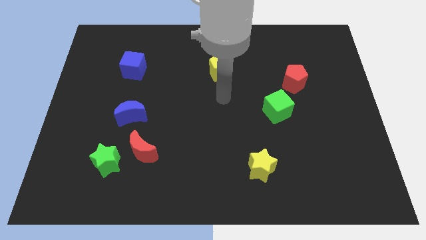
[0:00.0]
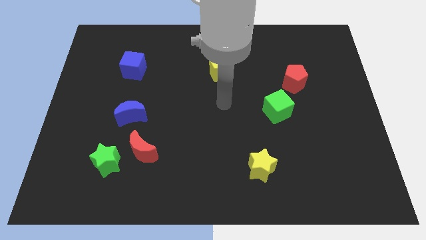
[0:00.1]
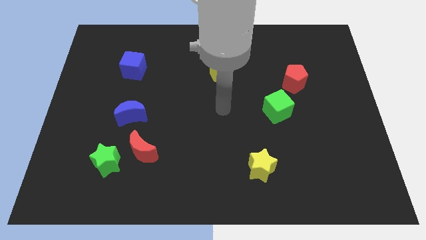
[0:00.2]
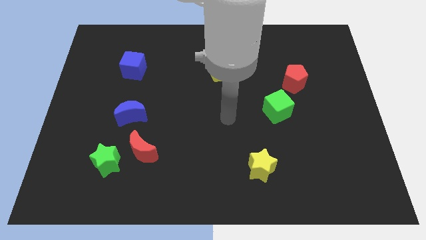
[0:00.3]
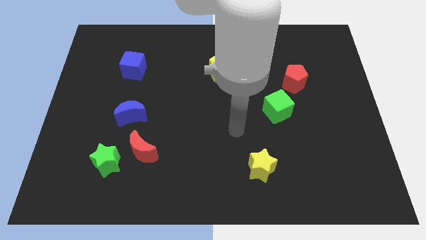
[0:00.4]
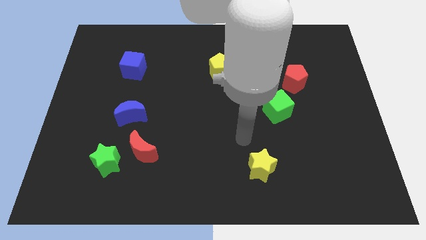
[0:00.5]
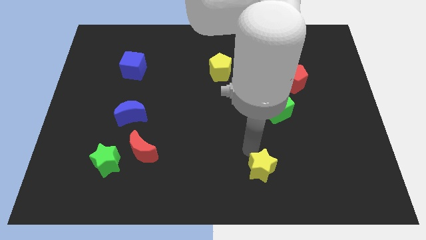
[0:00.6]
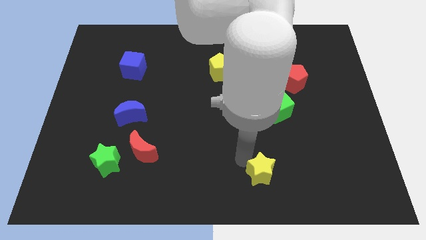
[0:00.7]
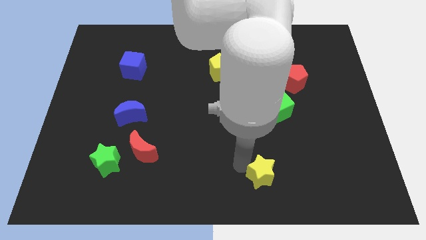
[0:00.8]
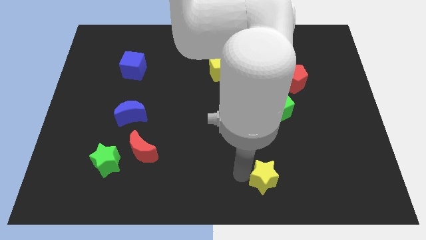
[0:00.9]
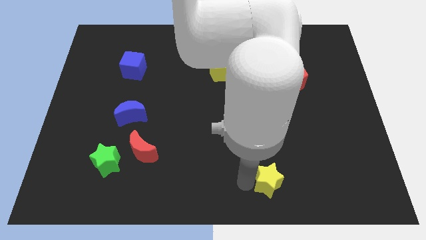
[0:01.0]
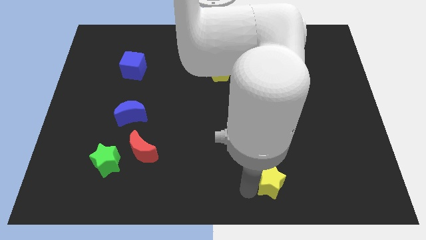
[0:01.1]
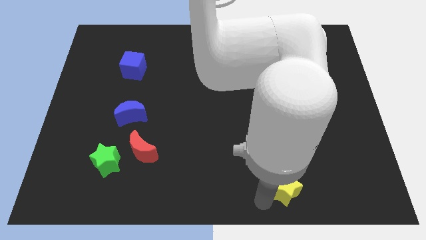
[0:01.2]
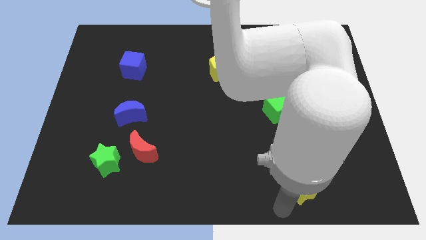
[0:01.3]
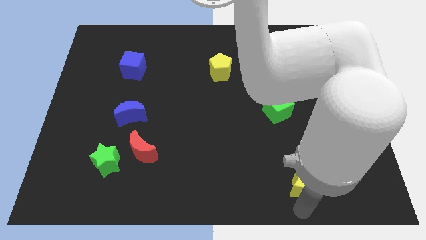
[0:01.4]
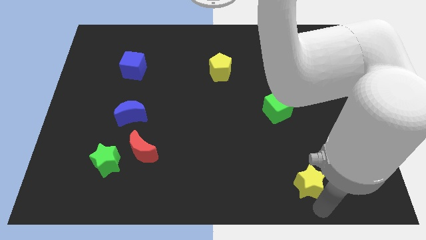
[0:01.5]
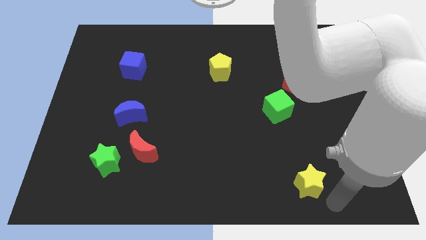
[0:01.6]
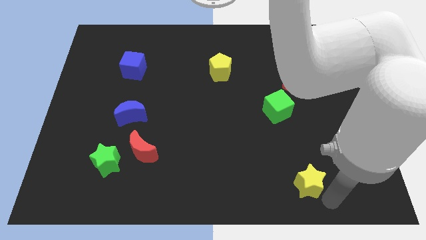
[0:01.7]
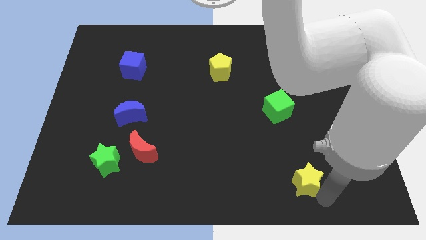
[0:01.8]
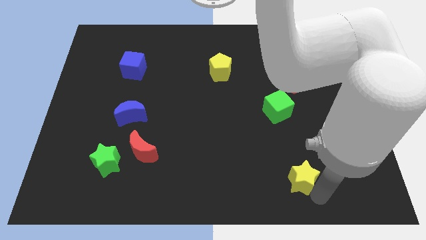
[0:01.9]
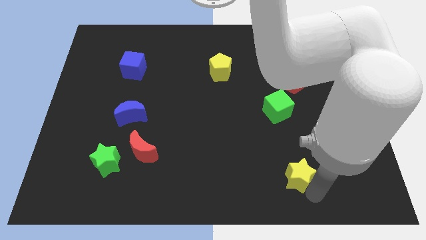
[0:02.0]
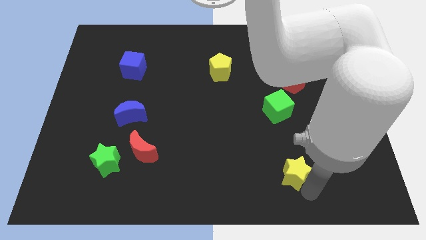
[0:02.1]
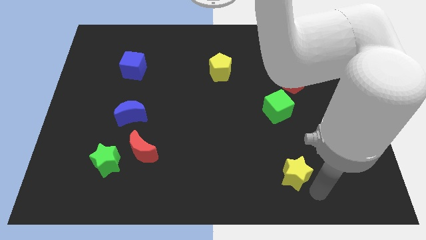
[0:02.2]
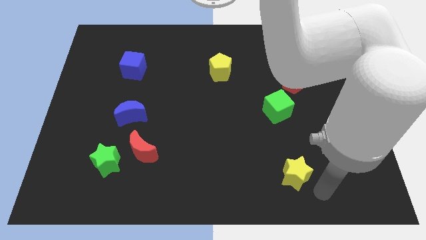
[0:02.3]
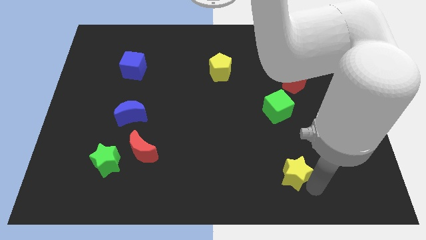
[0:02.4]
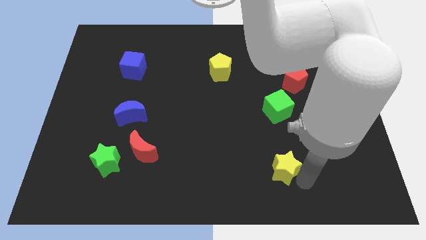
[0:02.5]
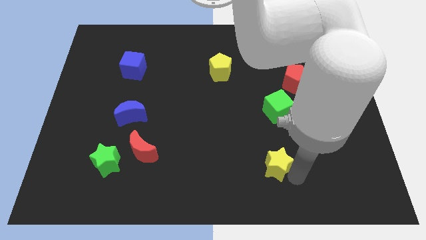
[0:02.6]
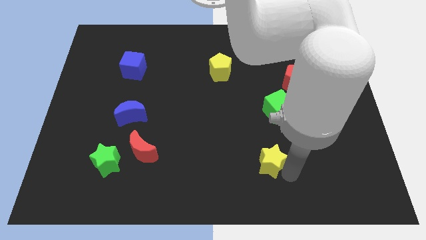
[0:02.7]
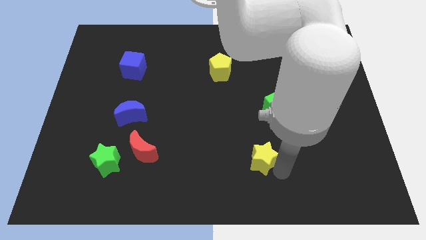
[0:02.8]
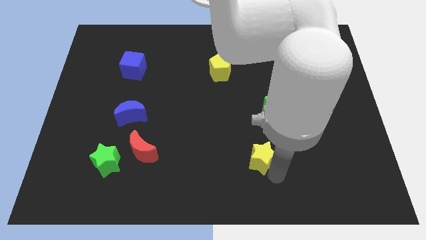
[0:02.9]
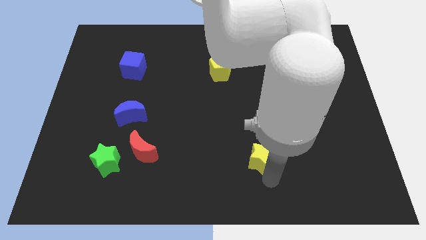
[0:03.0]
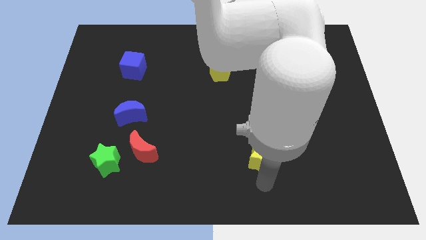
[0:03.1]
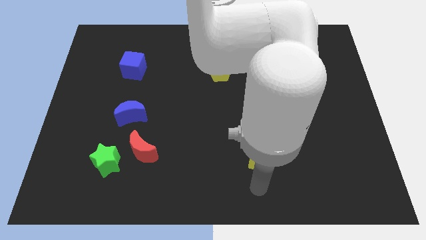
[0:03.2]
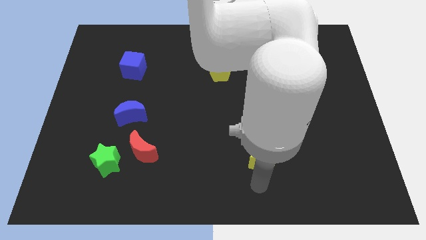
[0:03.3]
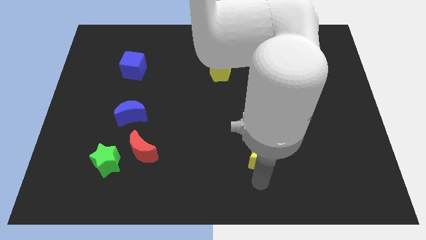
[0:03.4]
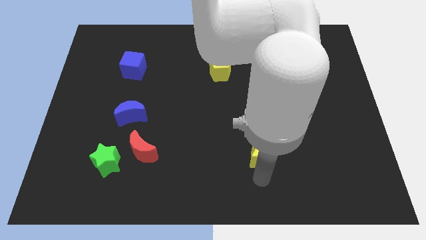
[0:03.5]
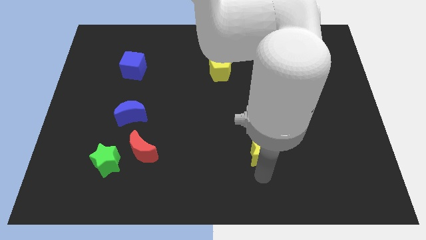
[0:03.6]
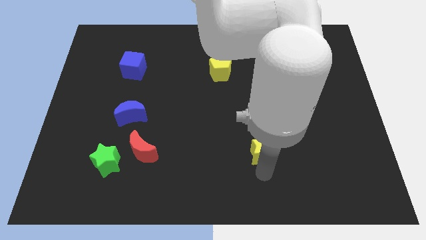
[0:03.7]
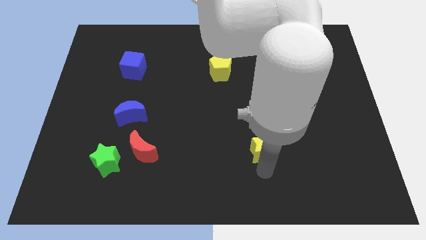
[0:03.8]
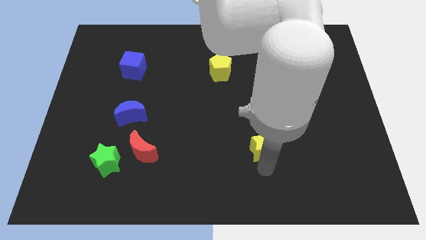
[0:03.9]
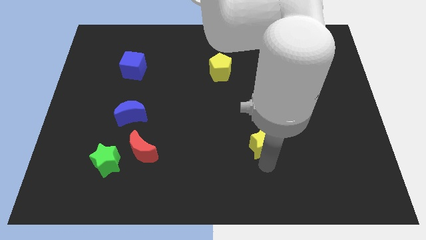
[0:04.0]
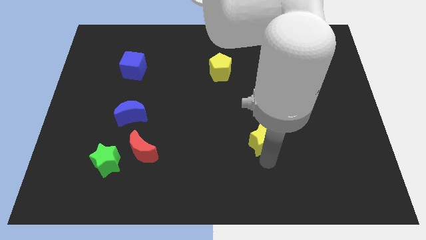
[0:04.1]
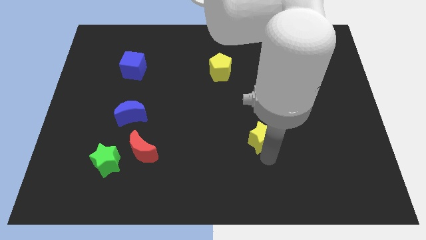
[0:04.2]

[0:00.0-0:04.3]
slightly slide the yellow star up

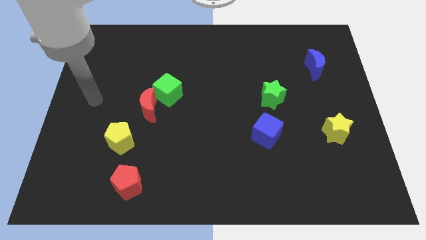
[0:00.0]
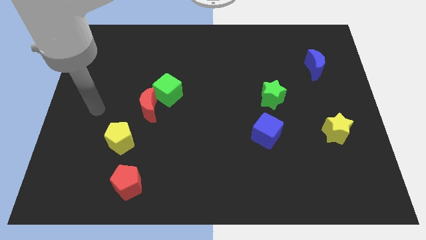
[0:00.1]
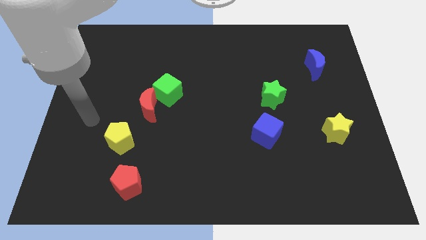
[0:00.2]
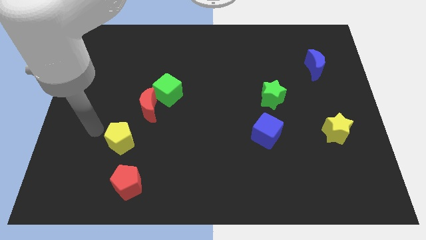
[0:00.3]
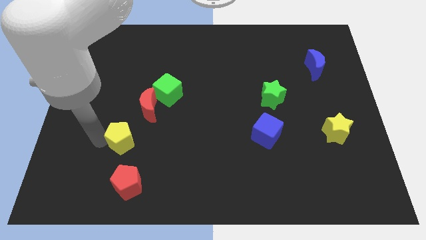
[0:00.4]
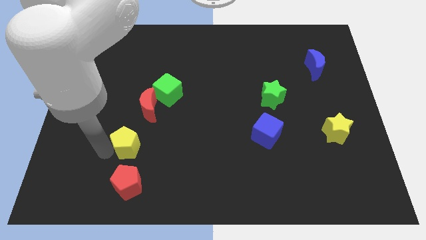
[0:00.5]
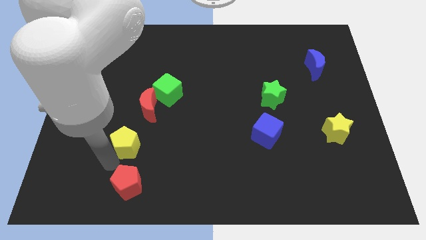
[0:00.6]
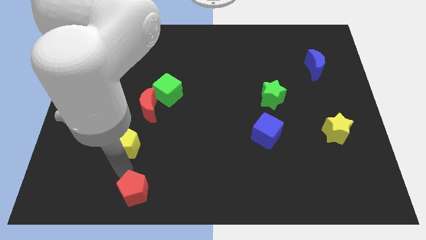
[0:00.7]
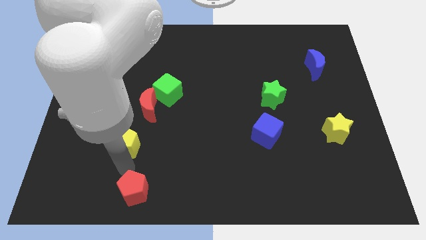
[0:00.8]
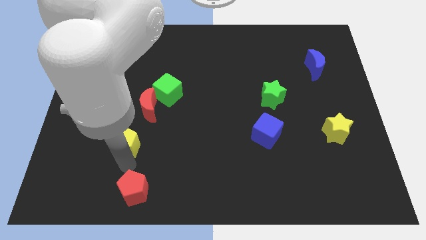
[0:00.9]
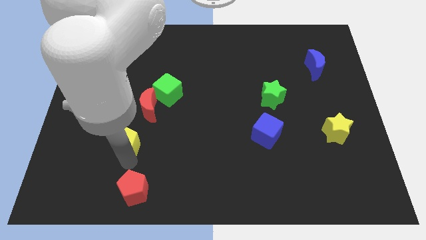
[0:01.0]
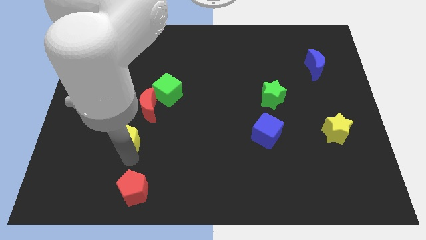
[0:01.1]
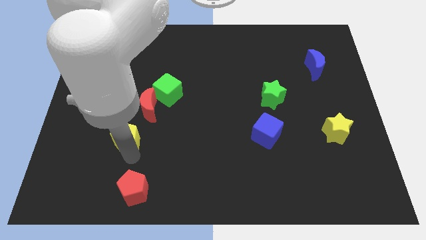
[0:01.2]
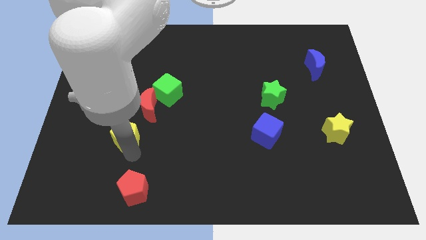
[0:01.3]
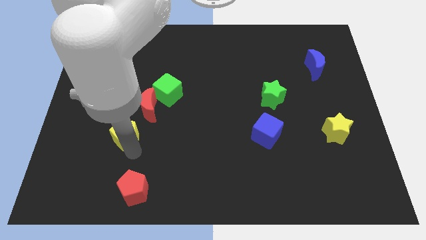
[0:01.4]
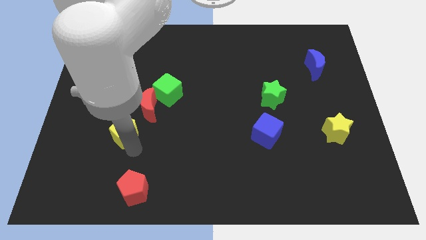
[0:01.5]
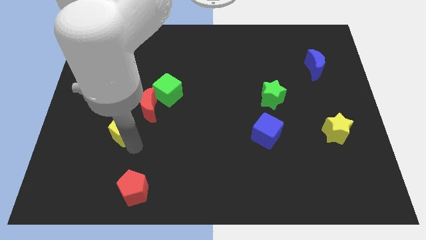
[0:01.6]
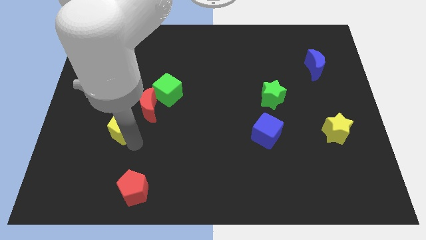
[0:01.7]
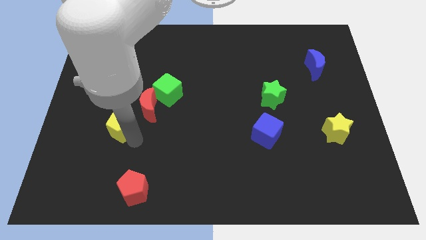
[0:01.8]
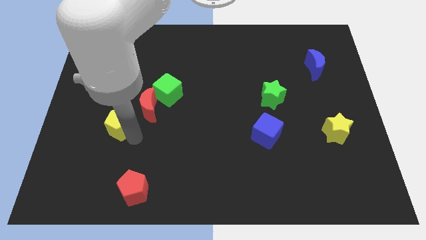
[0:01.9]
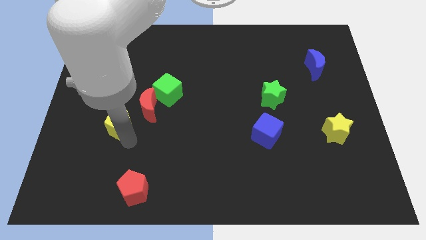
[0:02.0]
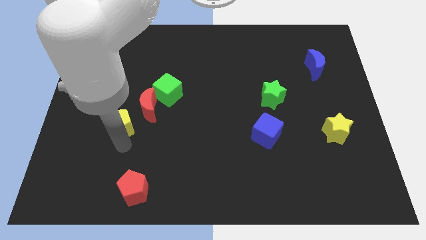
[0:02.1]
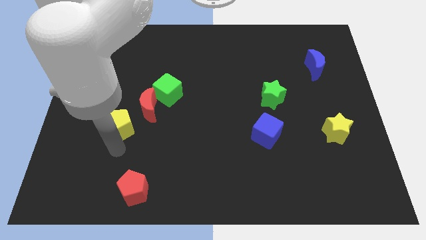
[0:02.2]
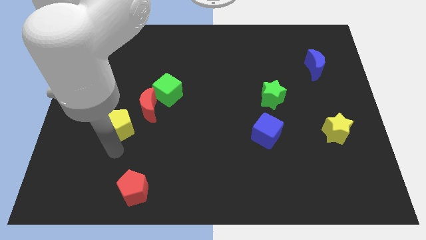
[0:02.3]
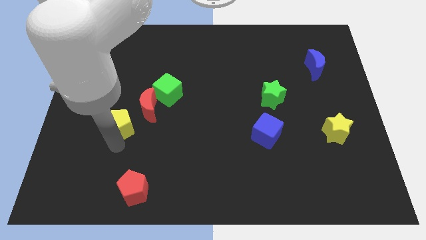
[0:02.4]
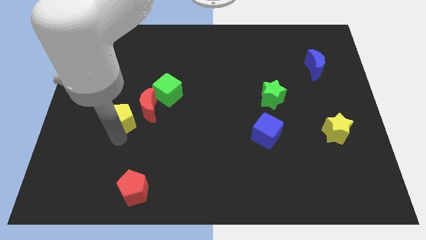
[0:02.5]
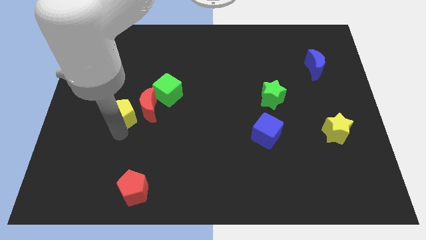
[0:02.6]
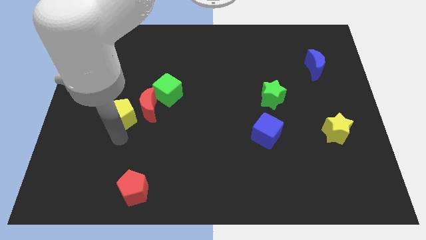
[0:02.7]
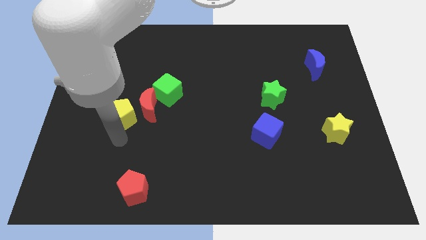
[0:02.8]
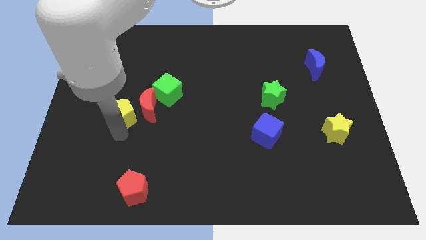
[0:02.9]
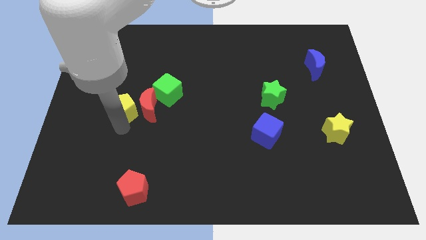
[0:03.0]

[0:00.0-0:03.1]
slide the yellow pentagon a little bit up

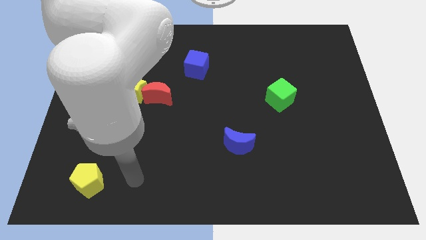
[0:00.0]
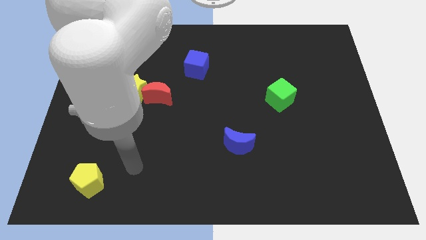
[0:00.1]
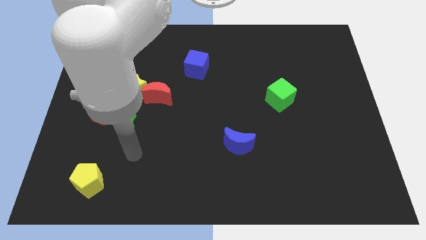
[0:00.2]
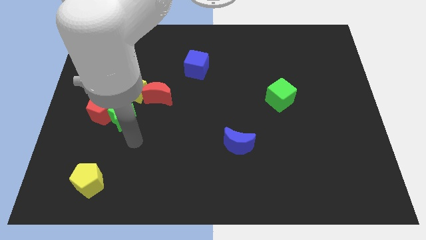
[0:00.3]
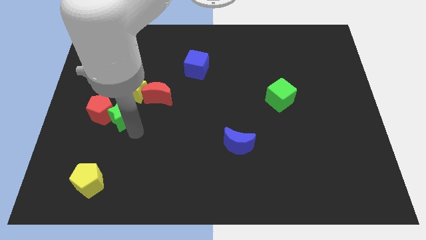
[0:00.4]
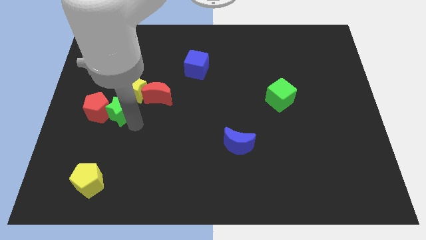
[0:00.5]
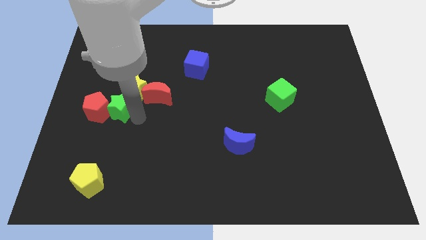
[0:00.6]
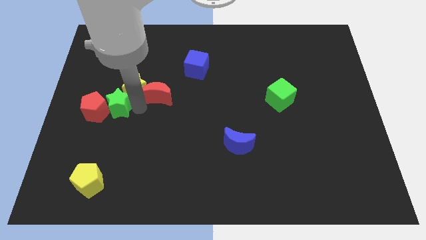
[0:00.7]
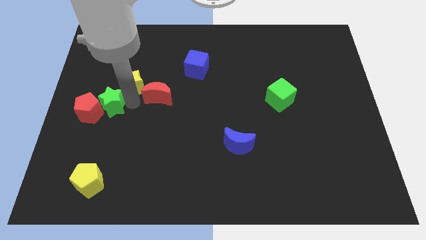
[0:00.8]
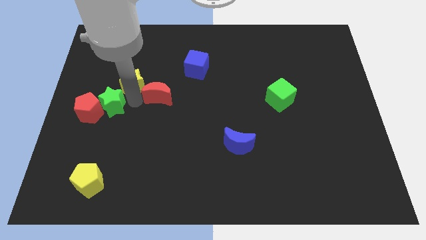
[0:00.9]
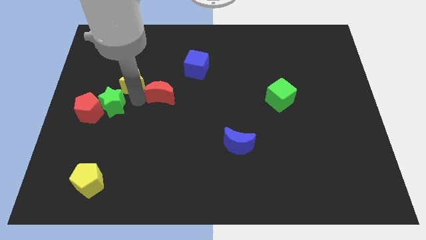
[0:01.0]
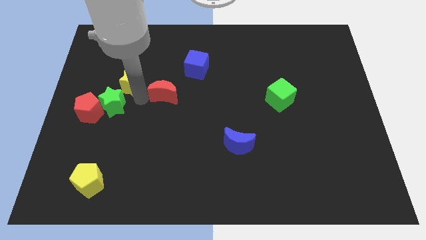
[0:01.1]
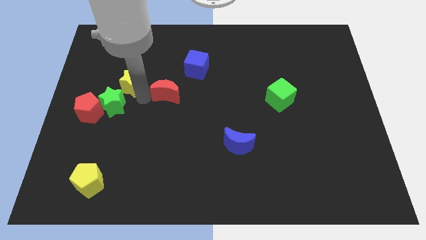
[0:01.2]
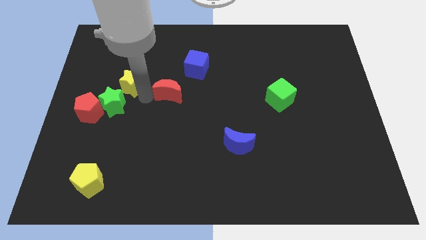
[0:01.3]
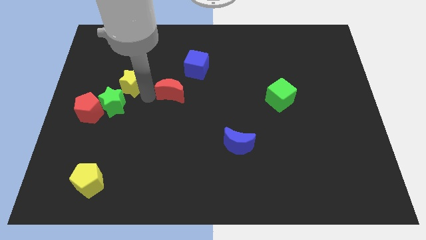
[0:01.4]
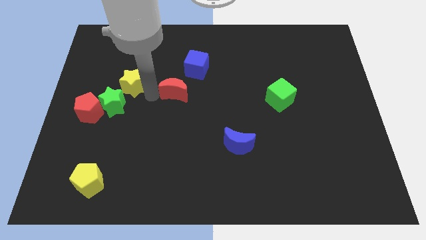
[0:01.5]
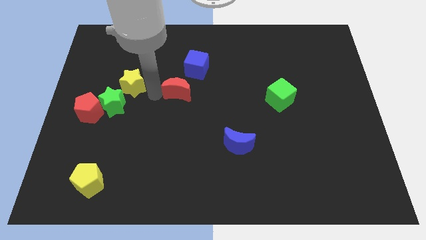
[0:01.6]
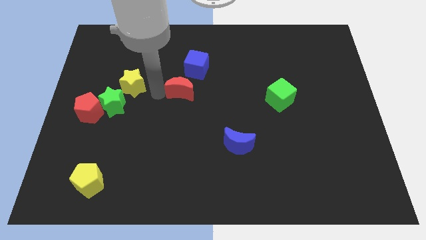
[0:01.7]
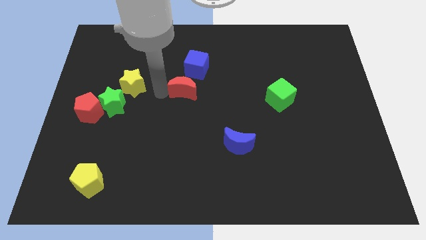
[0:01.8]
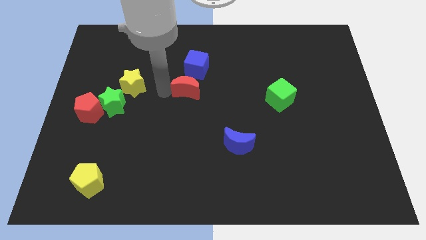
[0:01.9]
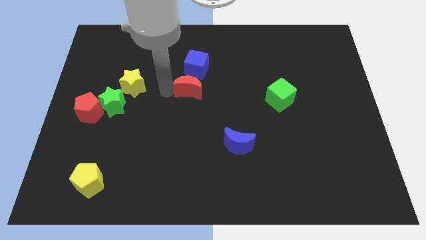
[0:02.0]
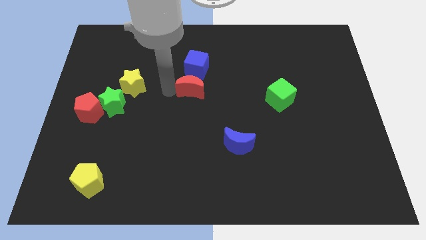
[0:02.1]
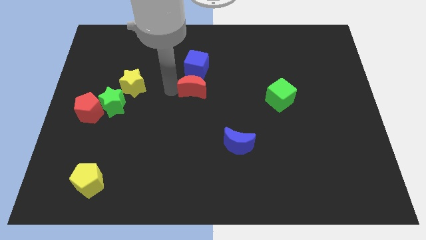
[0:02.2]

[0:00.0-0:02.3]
slightly push the red moon diagonally upwards and to the right
